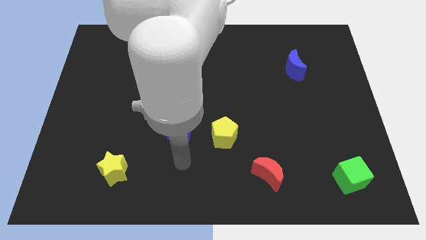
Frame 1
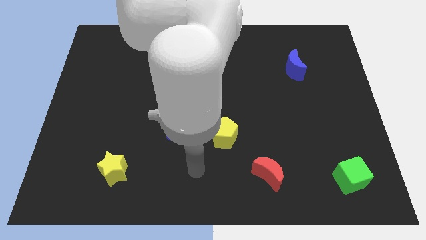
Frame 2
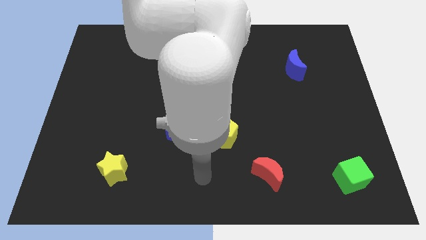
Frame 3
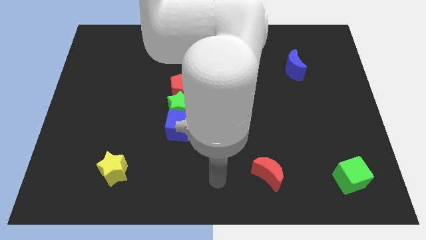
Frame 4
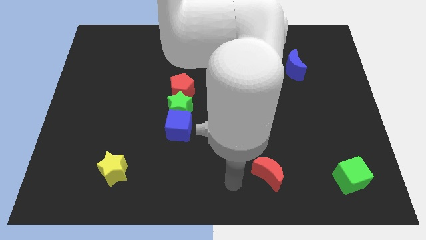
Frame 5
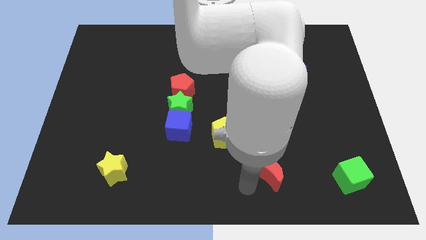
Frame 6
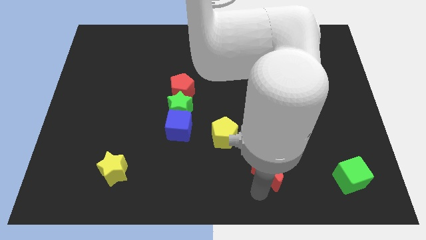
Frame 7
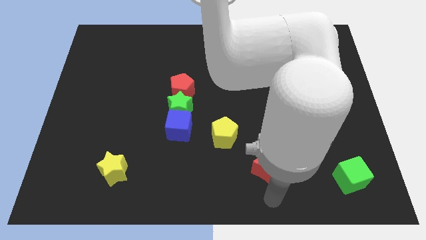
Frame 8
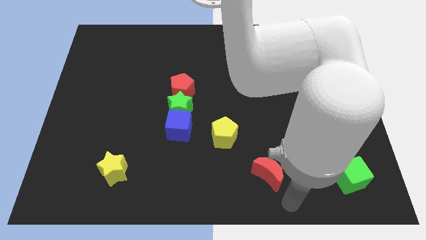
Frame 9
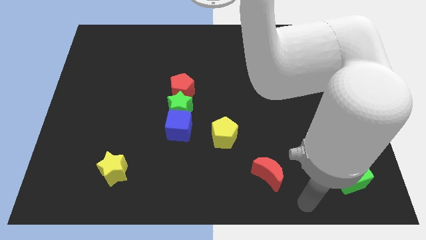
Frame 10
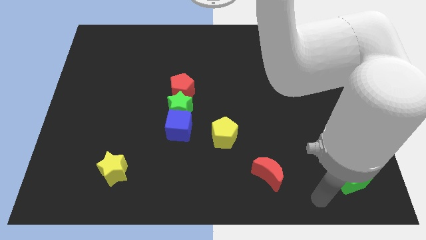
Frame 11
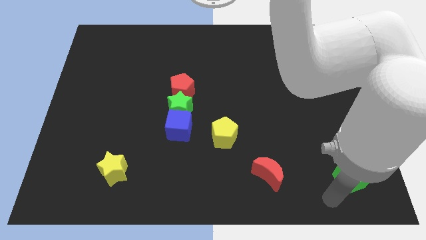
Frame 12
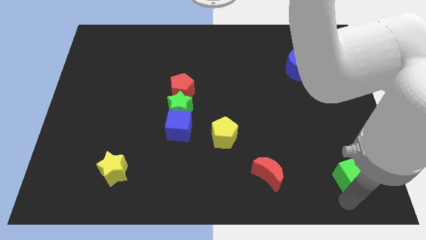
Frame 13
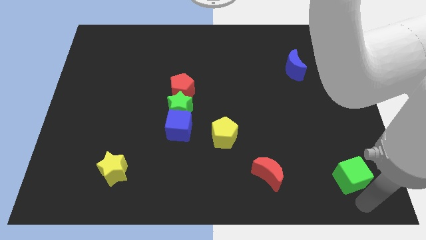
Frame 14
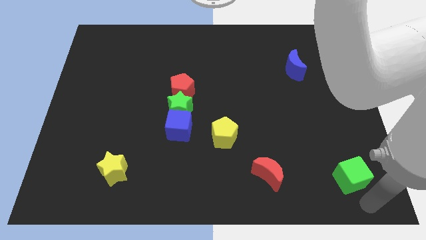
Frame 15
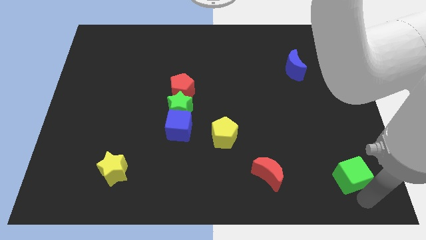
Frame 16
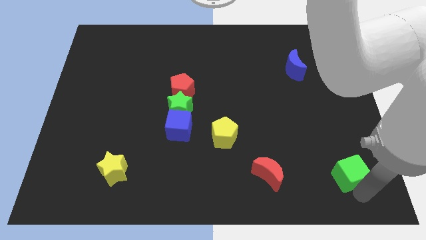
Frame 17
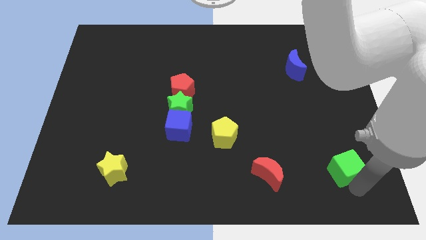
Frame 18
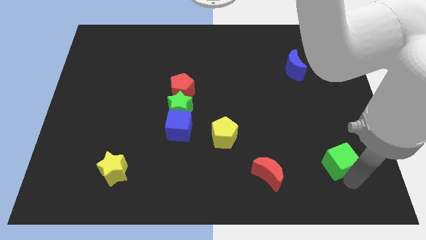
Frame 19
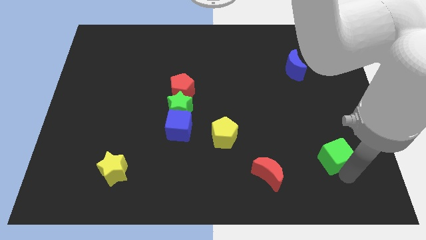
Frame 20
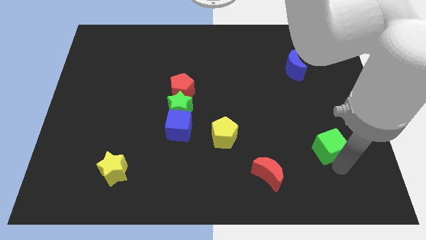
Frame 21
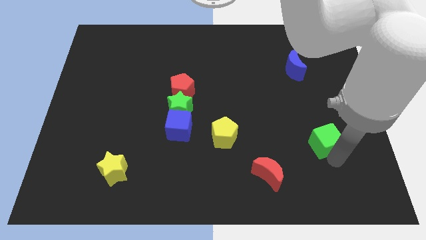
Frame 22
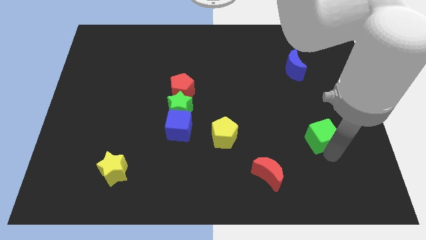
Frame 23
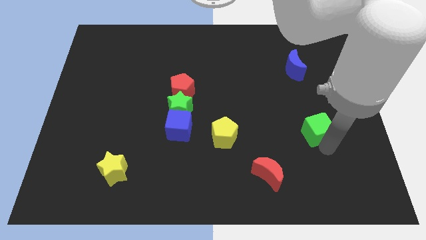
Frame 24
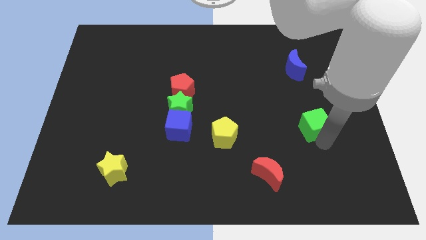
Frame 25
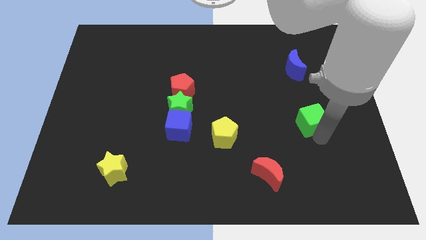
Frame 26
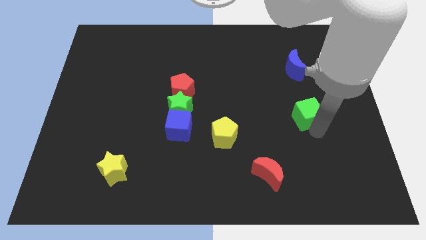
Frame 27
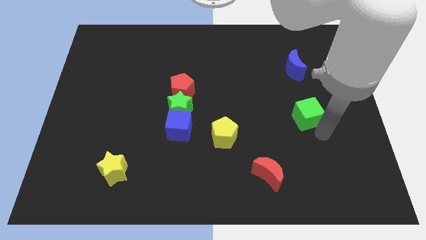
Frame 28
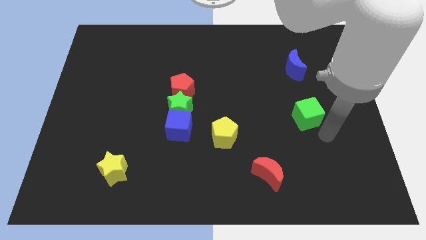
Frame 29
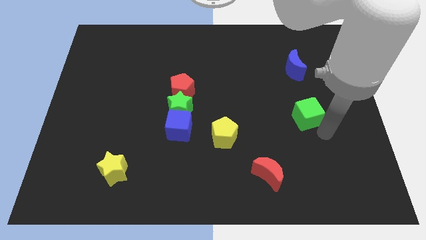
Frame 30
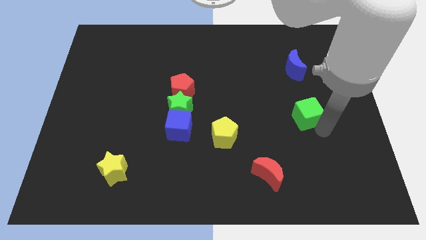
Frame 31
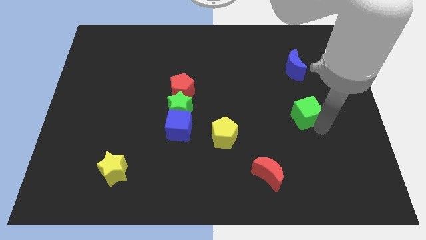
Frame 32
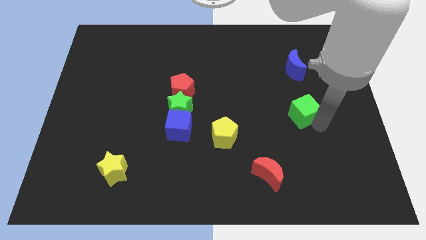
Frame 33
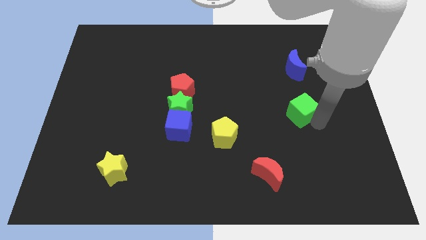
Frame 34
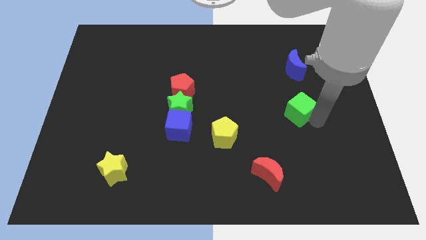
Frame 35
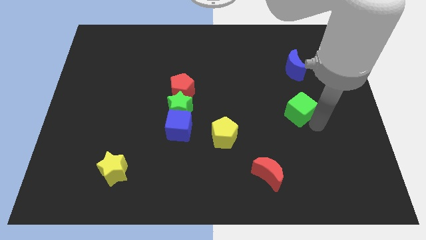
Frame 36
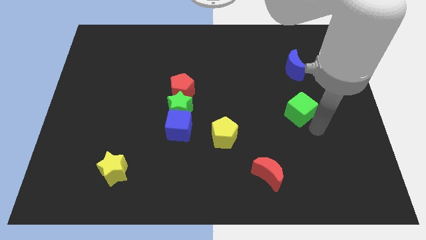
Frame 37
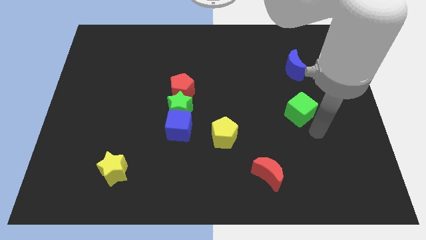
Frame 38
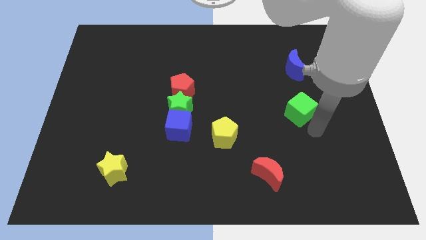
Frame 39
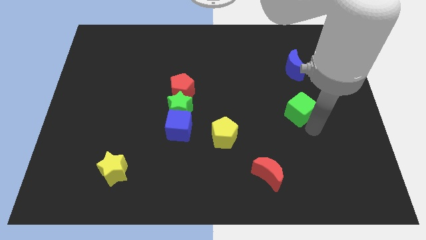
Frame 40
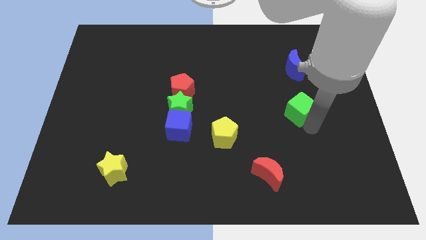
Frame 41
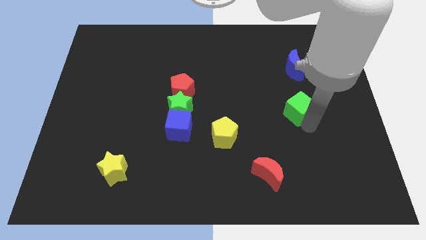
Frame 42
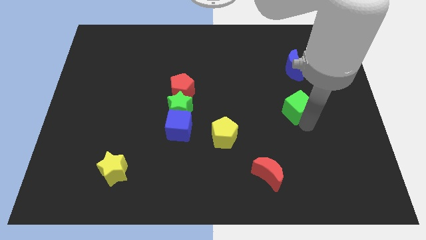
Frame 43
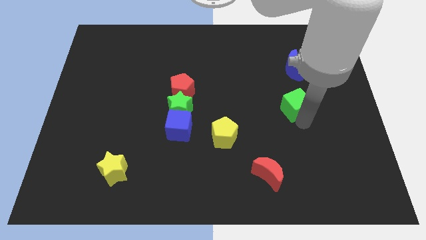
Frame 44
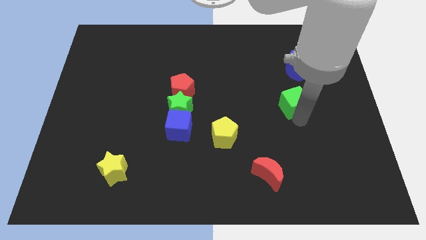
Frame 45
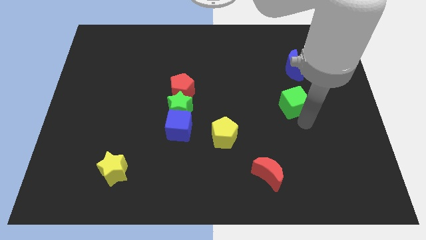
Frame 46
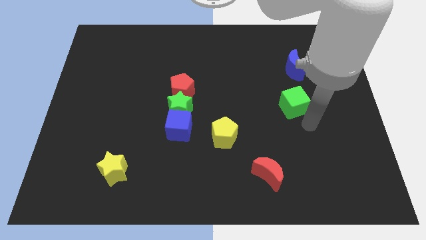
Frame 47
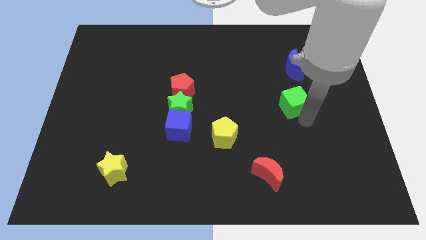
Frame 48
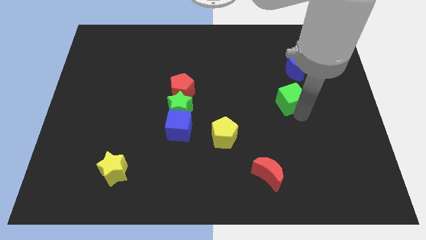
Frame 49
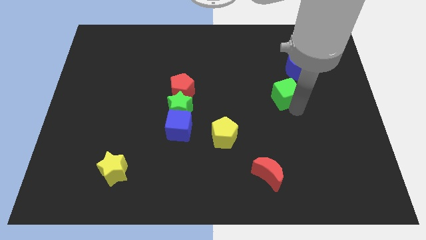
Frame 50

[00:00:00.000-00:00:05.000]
slide the green cube to the bottom left of the blue moon

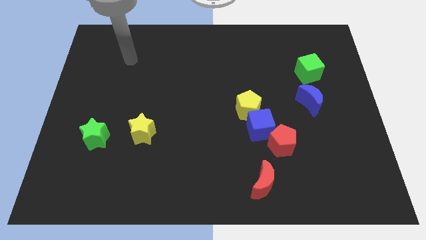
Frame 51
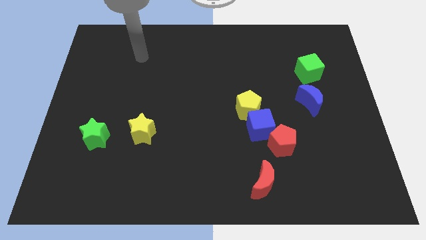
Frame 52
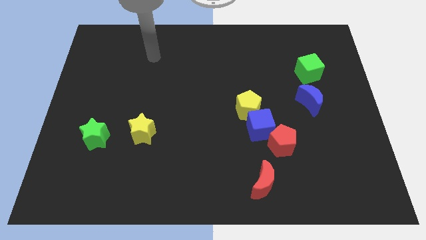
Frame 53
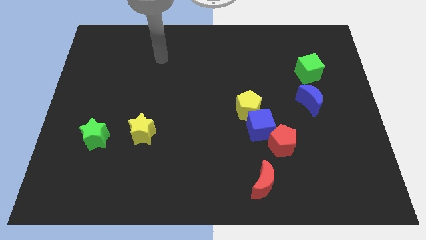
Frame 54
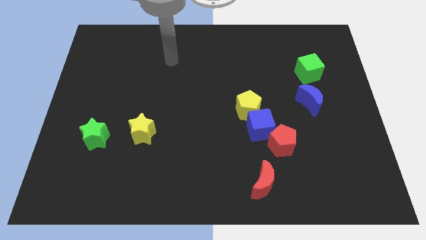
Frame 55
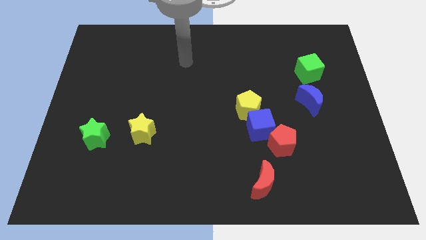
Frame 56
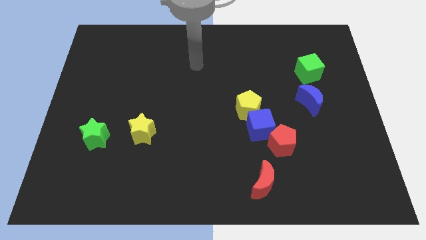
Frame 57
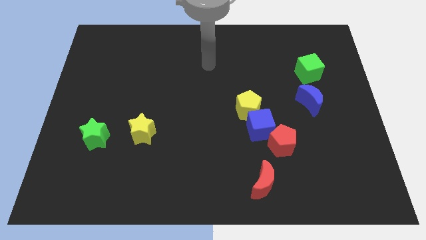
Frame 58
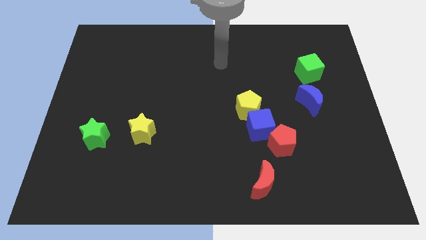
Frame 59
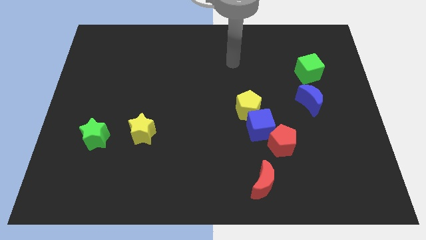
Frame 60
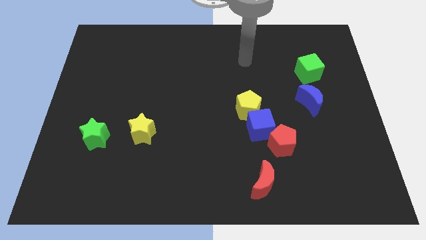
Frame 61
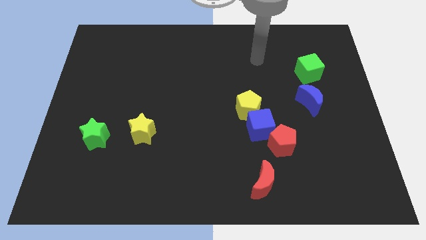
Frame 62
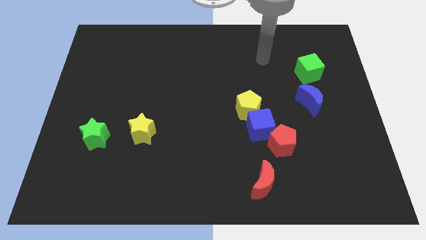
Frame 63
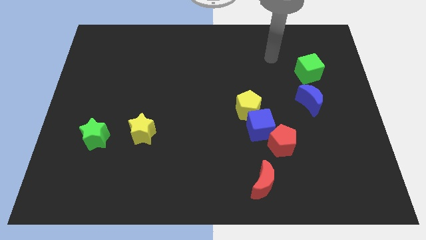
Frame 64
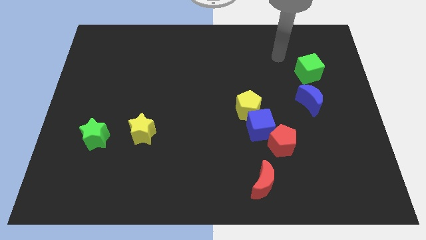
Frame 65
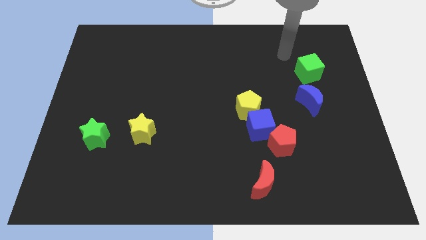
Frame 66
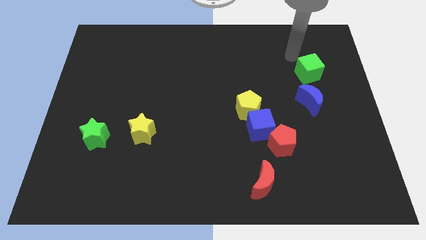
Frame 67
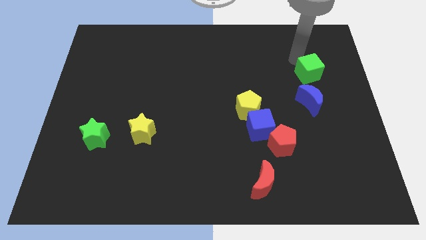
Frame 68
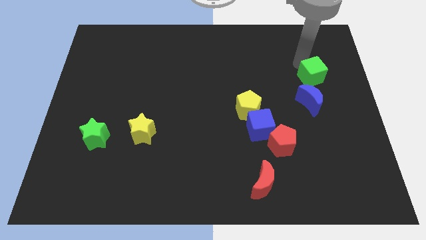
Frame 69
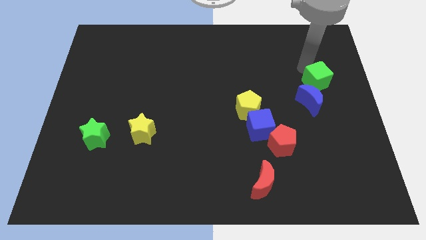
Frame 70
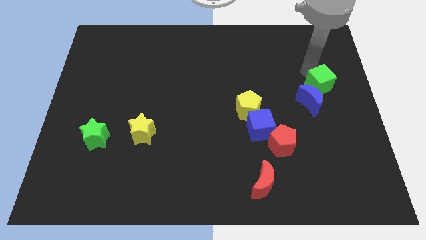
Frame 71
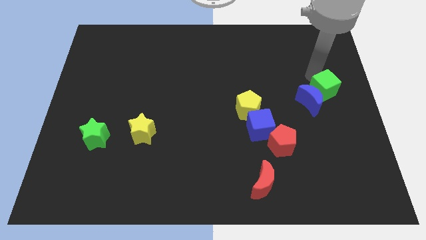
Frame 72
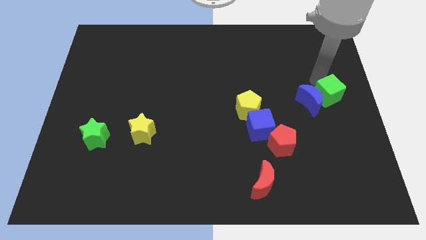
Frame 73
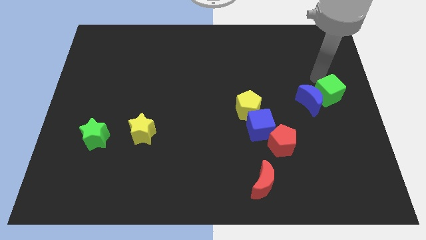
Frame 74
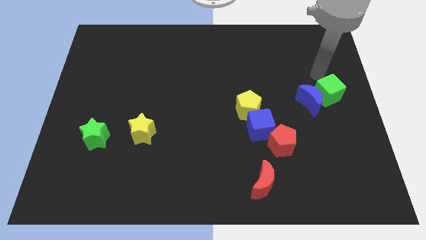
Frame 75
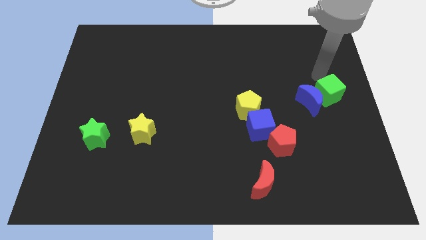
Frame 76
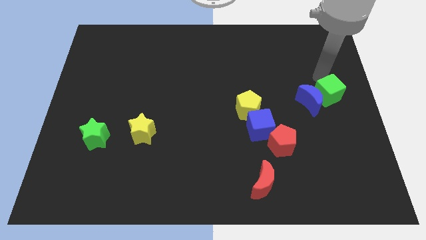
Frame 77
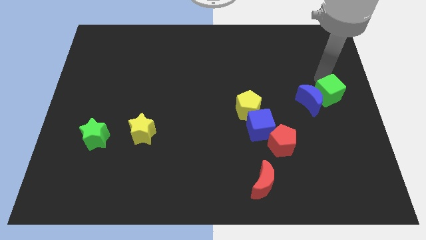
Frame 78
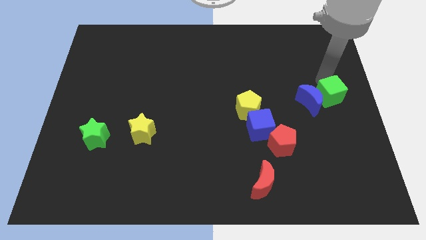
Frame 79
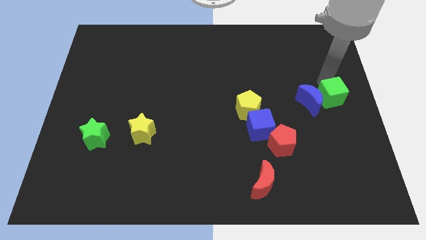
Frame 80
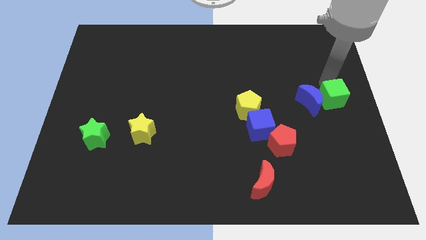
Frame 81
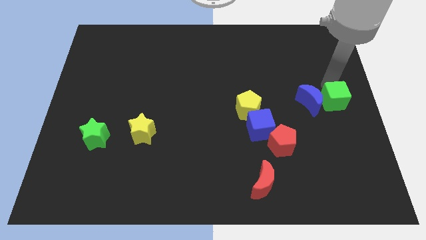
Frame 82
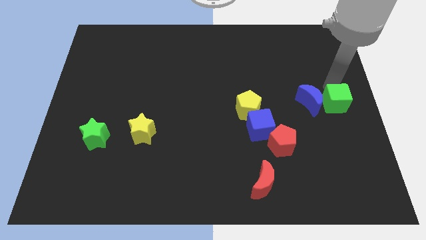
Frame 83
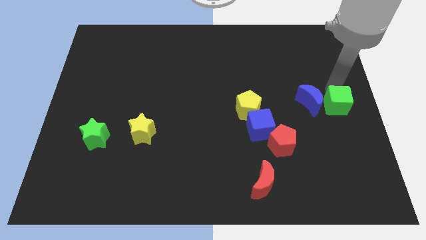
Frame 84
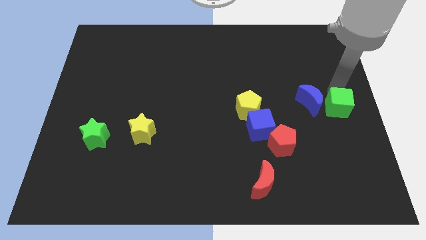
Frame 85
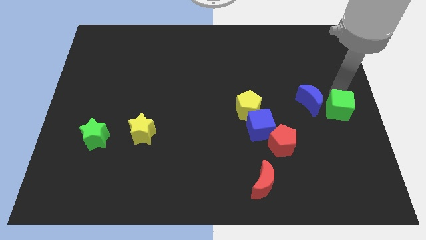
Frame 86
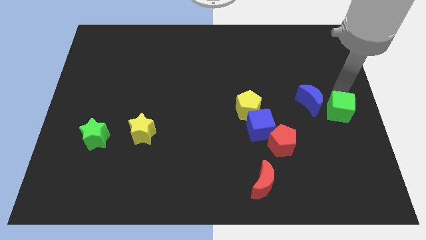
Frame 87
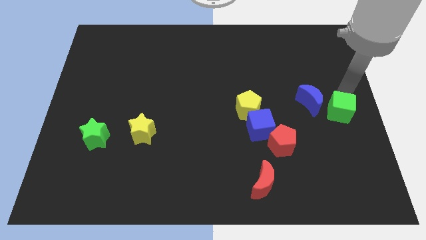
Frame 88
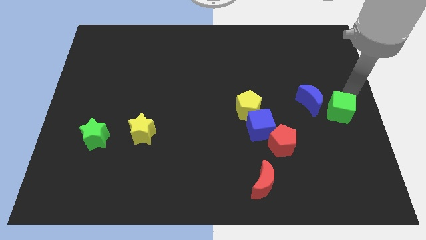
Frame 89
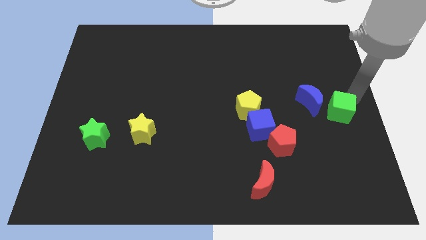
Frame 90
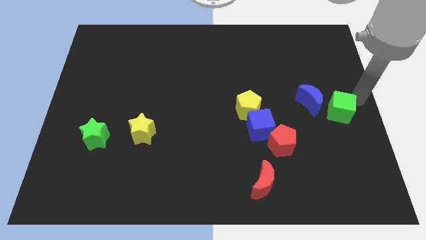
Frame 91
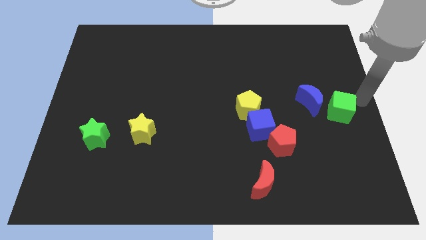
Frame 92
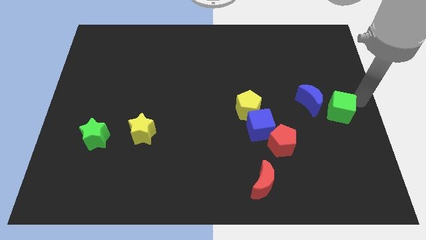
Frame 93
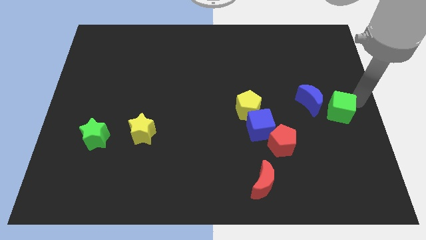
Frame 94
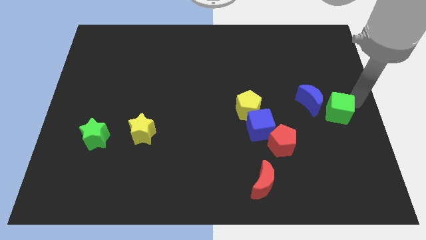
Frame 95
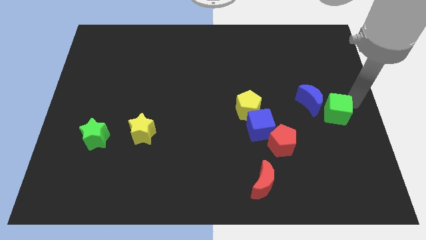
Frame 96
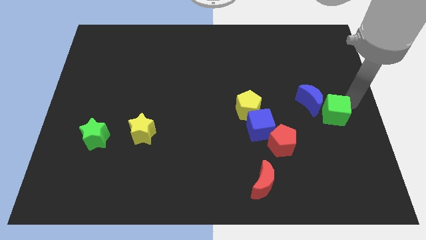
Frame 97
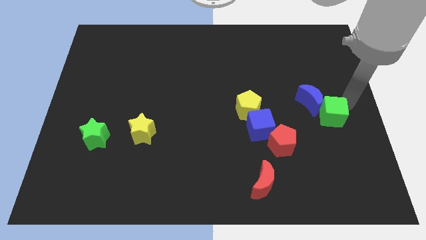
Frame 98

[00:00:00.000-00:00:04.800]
slide the green cube to the bottom of the blue moon
